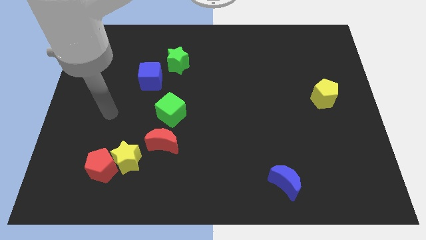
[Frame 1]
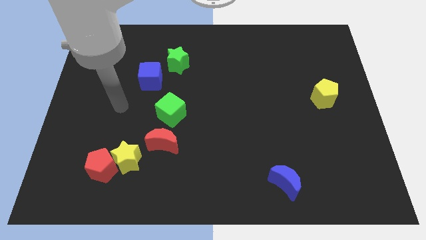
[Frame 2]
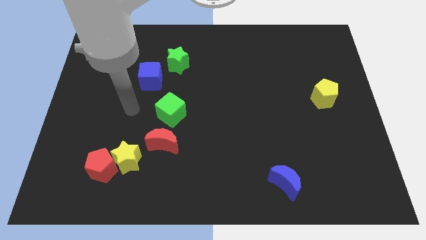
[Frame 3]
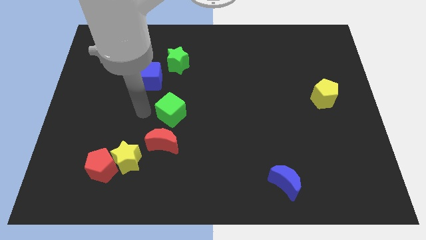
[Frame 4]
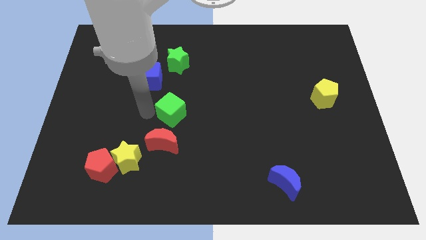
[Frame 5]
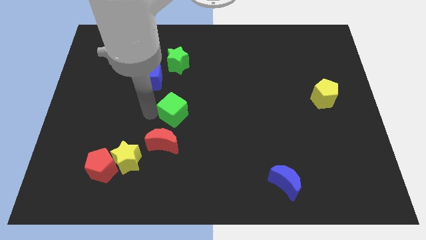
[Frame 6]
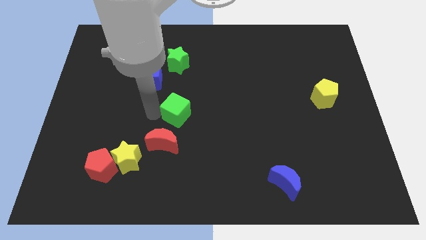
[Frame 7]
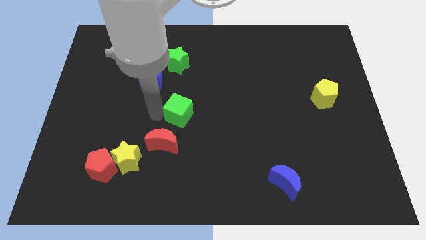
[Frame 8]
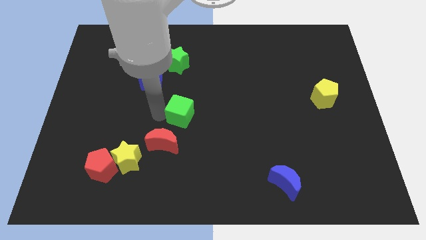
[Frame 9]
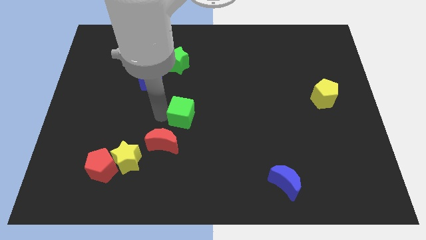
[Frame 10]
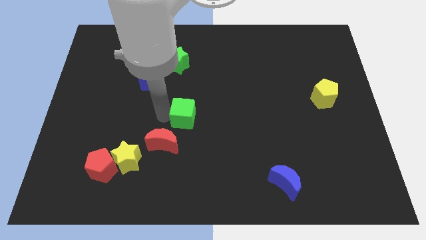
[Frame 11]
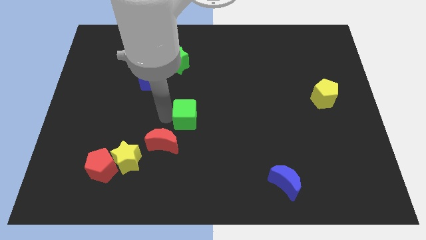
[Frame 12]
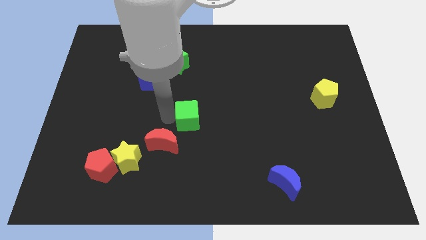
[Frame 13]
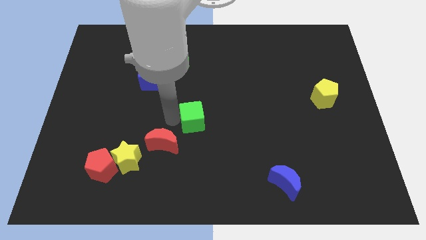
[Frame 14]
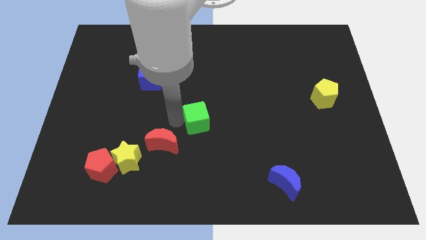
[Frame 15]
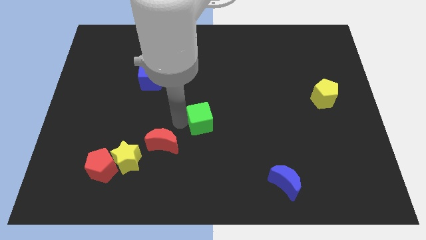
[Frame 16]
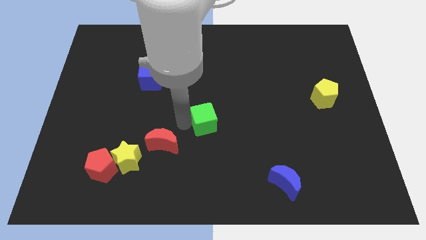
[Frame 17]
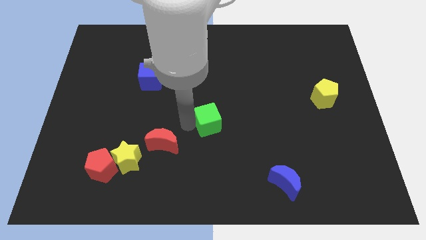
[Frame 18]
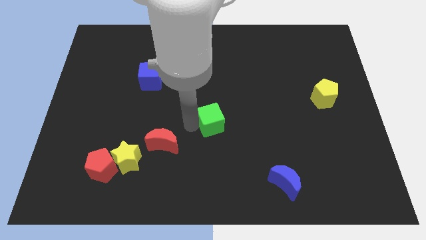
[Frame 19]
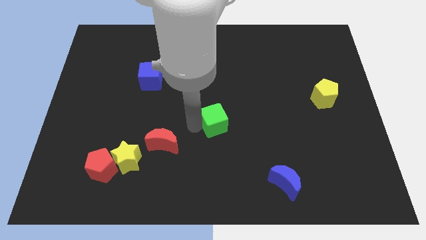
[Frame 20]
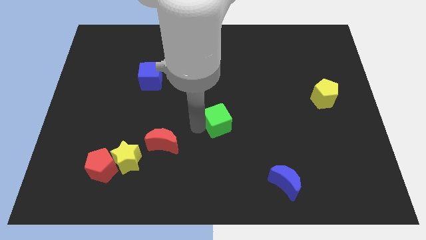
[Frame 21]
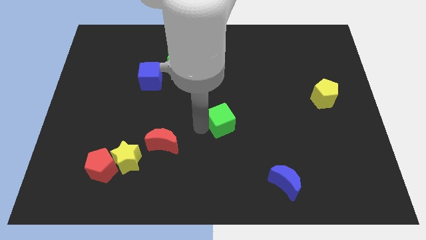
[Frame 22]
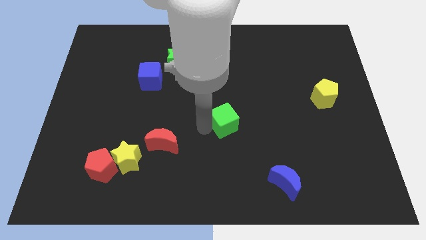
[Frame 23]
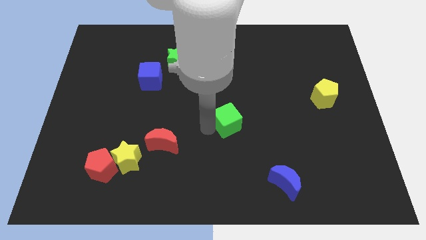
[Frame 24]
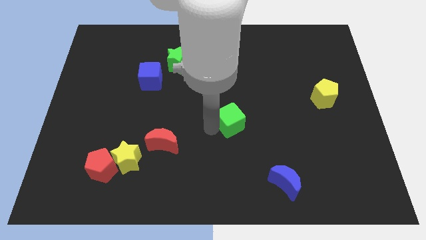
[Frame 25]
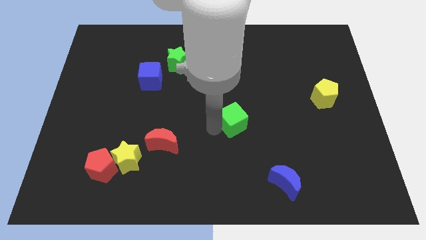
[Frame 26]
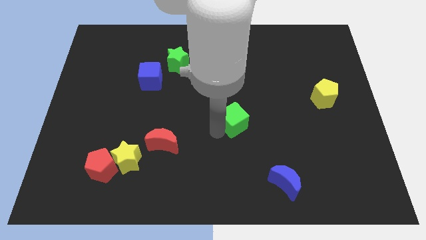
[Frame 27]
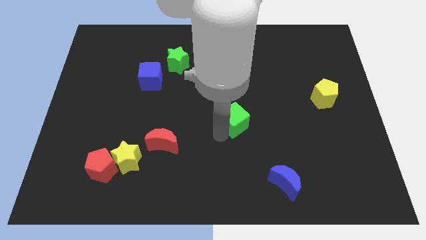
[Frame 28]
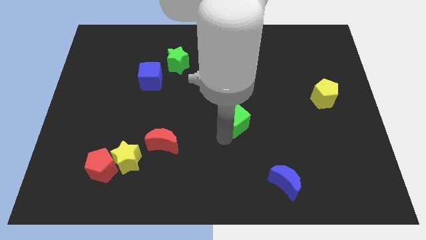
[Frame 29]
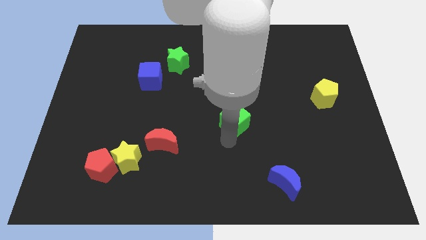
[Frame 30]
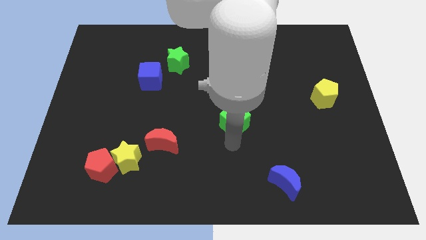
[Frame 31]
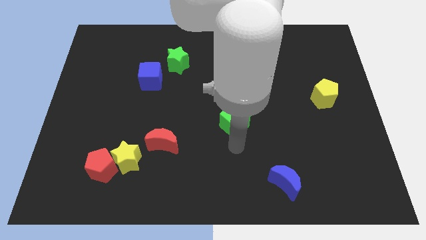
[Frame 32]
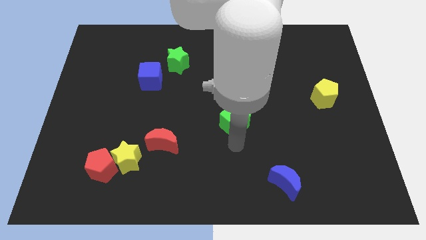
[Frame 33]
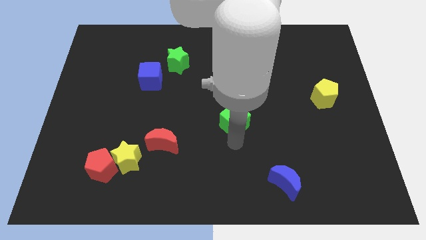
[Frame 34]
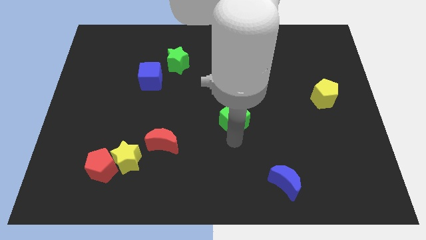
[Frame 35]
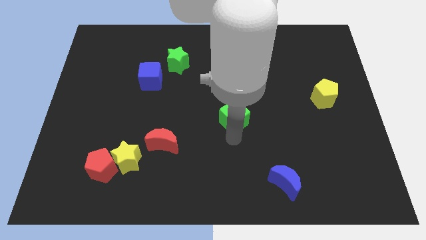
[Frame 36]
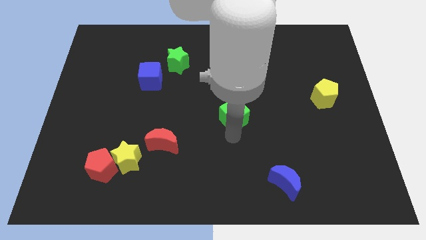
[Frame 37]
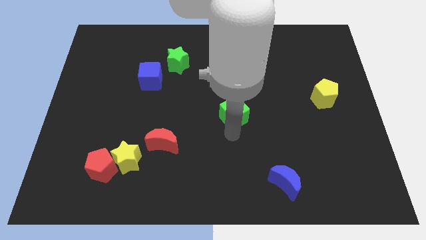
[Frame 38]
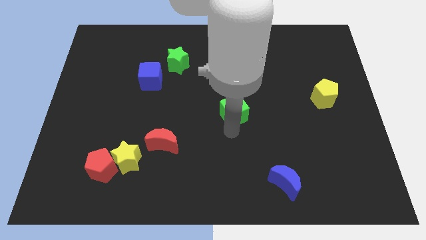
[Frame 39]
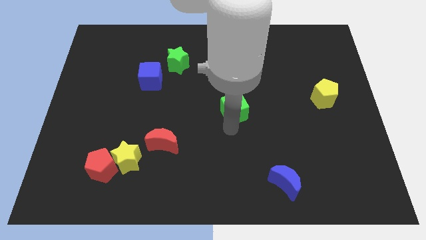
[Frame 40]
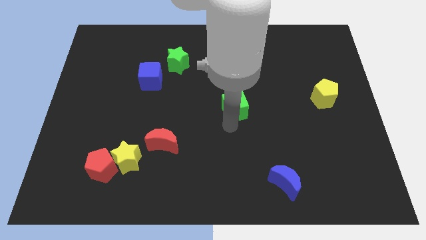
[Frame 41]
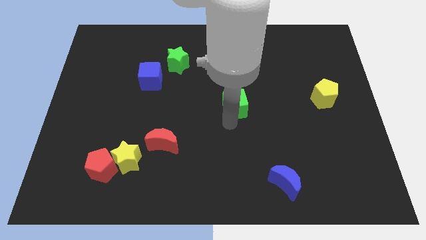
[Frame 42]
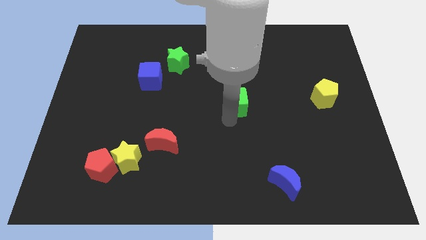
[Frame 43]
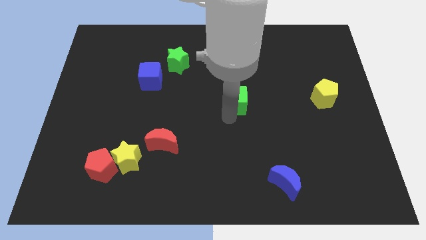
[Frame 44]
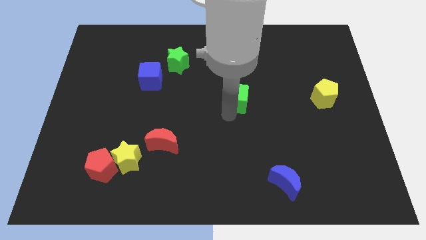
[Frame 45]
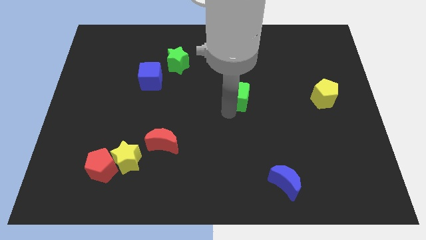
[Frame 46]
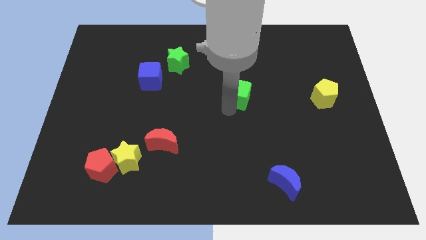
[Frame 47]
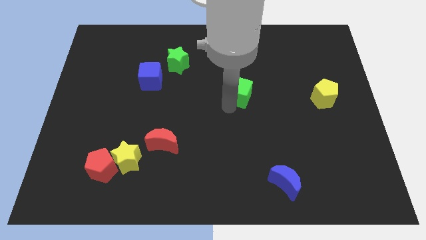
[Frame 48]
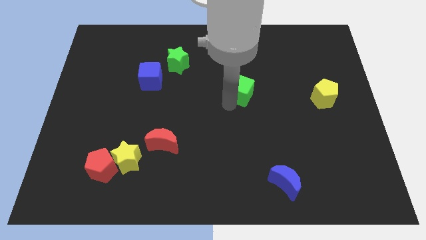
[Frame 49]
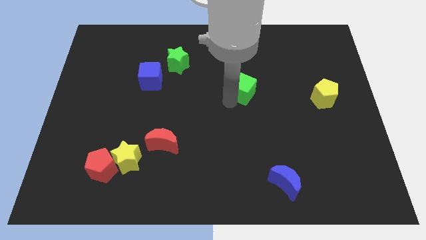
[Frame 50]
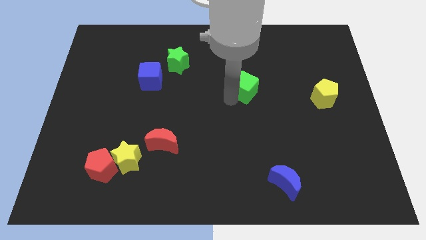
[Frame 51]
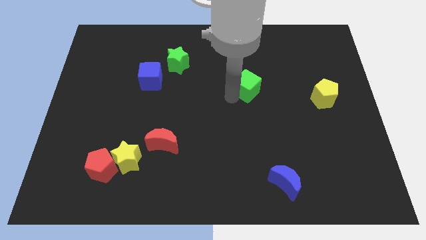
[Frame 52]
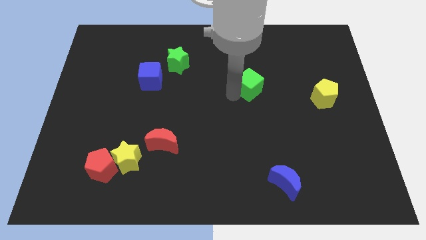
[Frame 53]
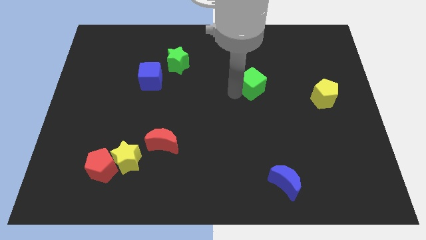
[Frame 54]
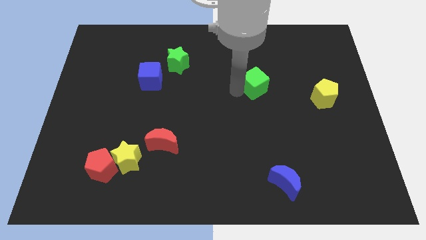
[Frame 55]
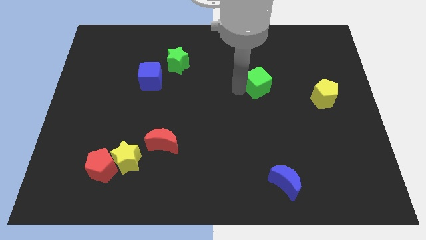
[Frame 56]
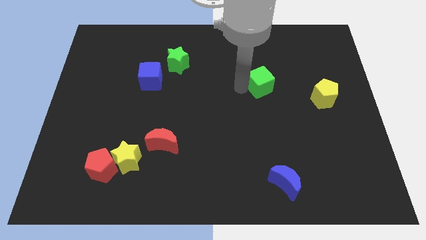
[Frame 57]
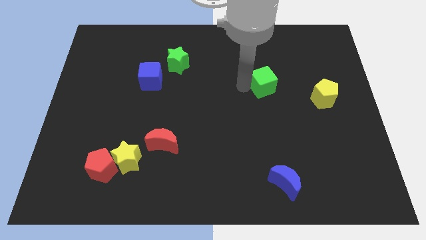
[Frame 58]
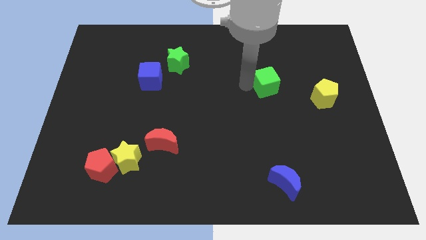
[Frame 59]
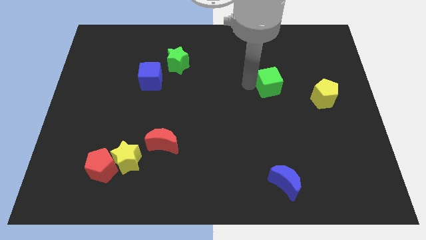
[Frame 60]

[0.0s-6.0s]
move the green cube right

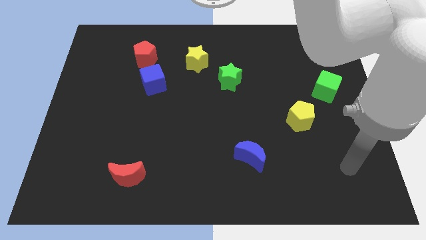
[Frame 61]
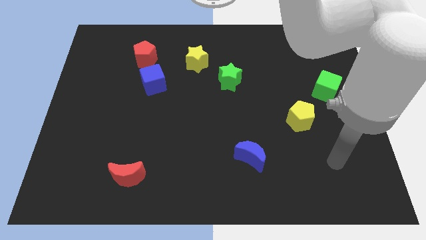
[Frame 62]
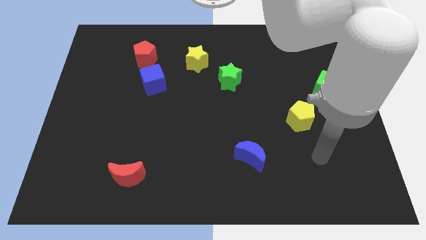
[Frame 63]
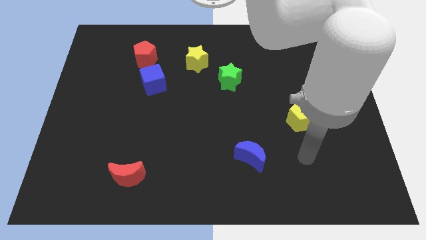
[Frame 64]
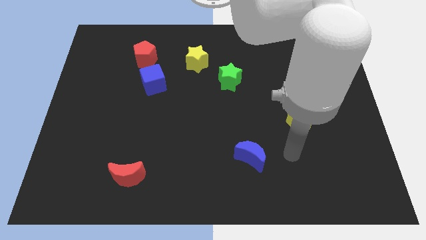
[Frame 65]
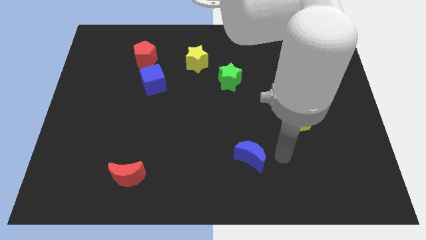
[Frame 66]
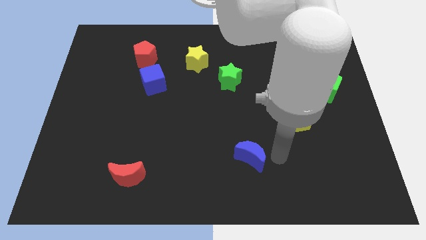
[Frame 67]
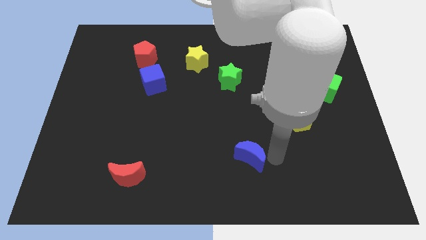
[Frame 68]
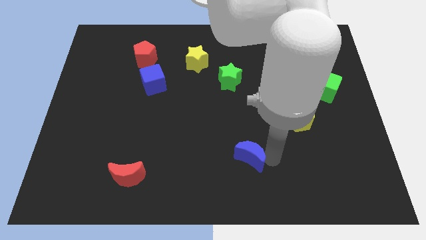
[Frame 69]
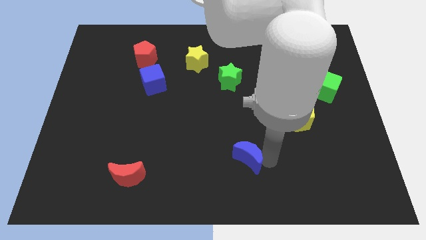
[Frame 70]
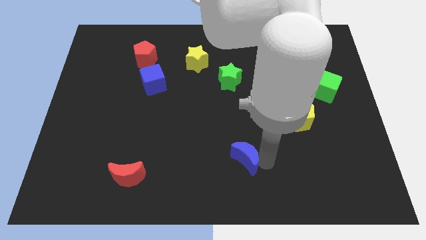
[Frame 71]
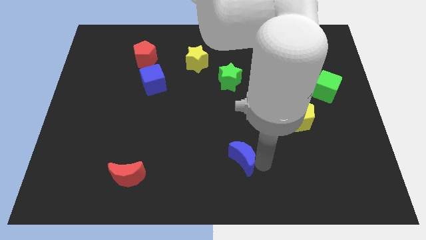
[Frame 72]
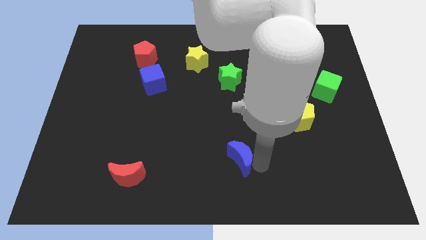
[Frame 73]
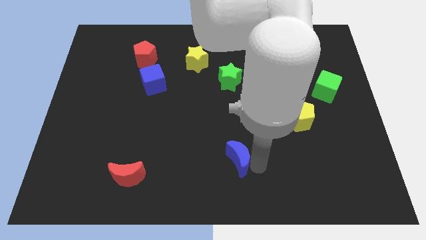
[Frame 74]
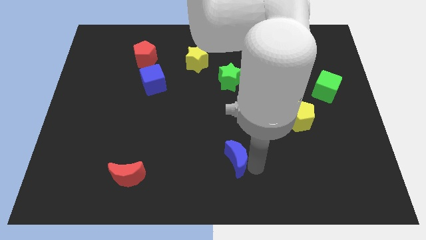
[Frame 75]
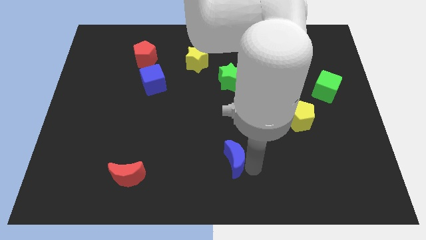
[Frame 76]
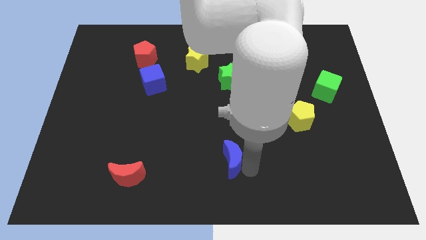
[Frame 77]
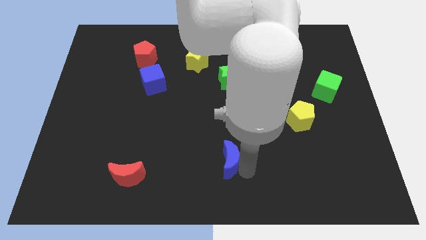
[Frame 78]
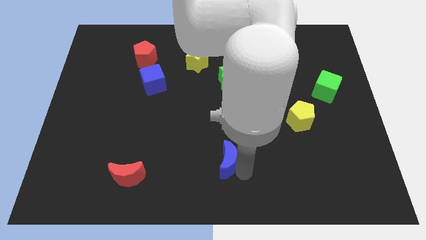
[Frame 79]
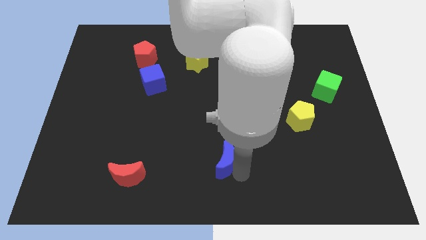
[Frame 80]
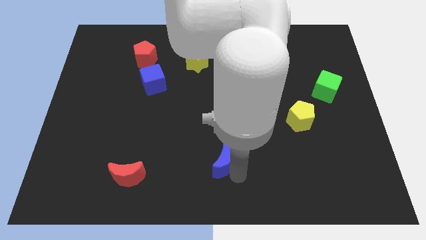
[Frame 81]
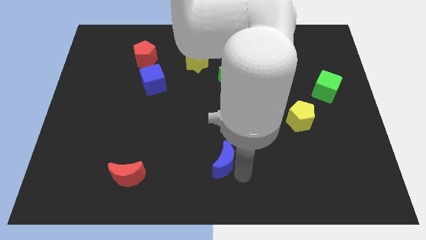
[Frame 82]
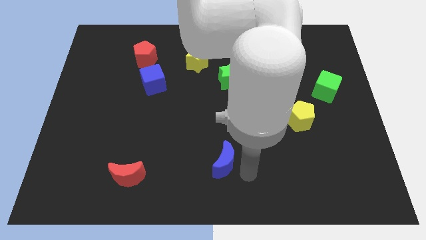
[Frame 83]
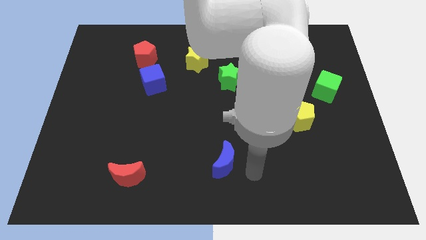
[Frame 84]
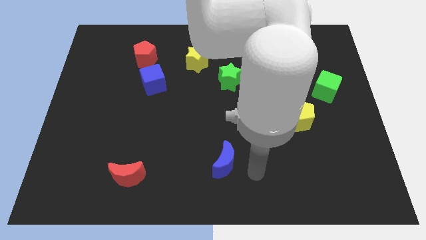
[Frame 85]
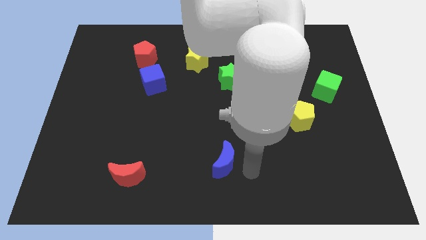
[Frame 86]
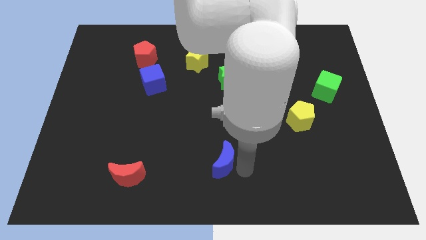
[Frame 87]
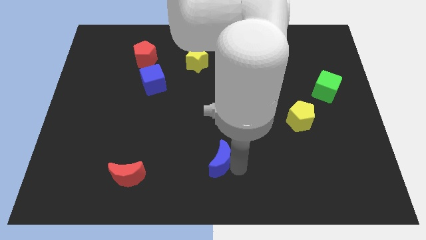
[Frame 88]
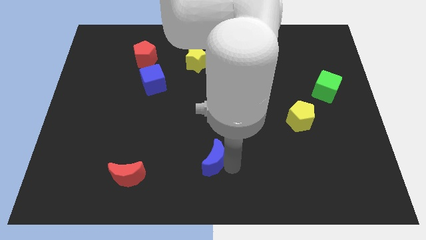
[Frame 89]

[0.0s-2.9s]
push the blue moon to the left a little bit
